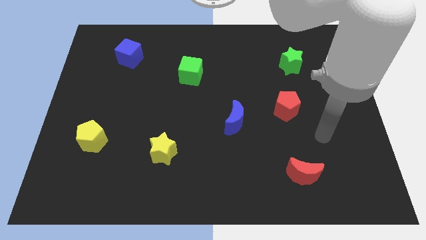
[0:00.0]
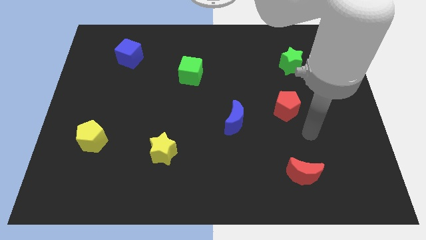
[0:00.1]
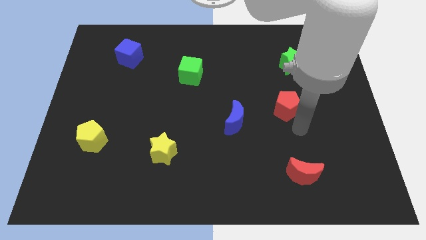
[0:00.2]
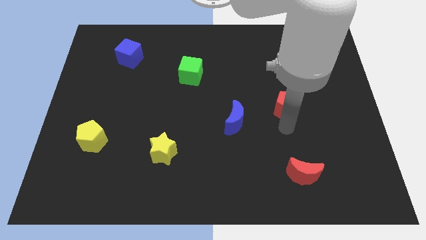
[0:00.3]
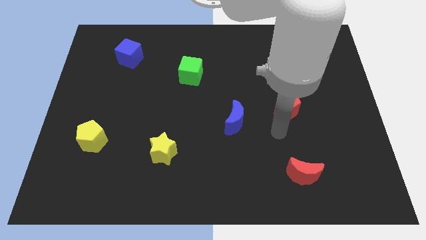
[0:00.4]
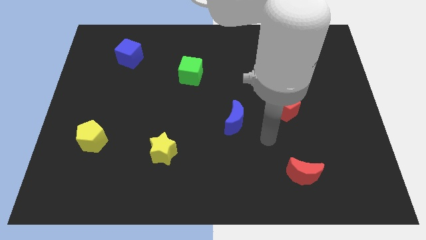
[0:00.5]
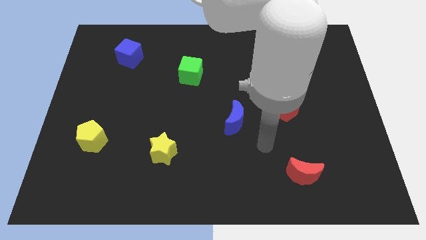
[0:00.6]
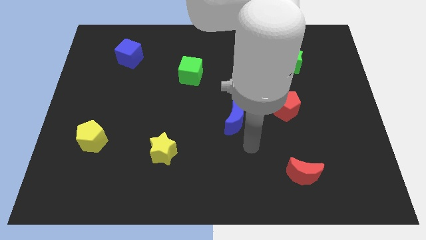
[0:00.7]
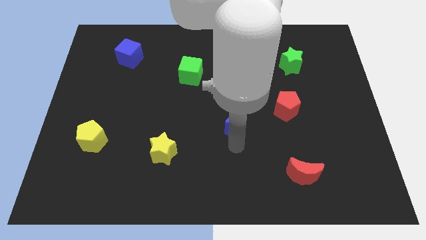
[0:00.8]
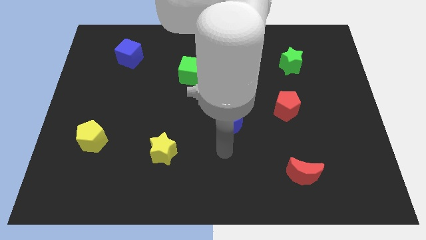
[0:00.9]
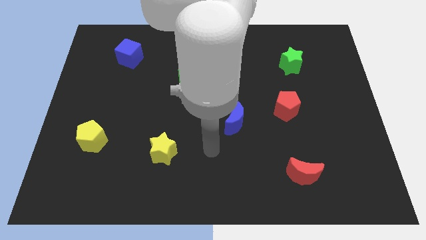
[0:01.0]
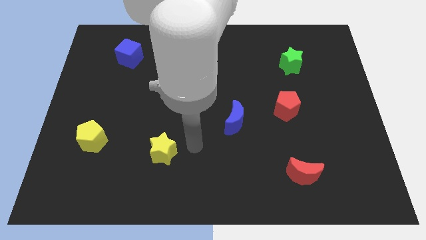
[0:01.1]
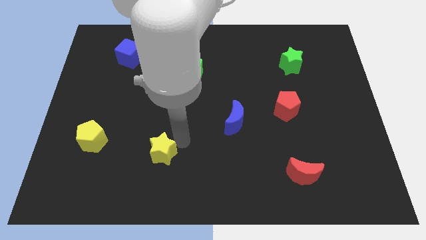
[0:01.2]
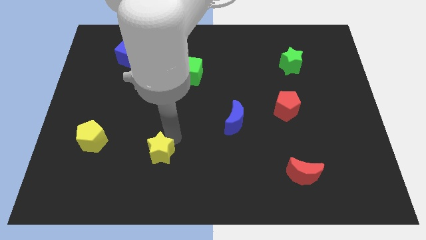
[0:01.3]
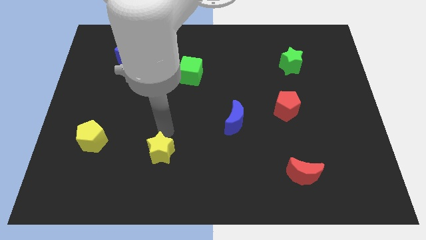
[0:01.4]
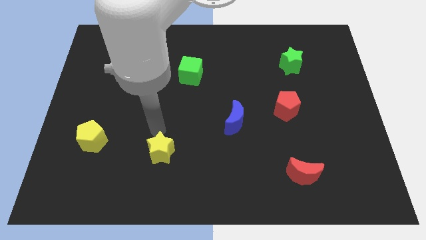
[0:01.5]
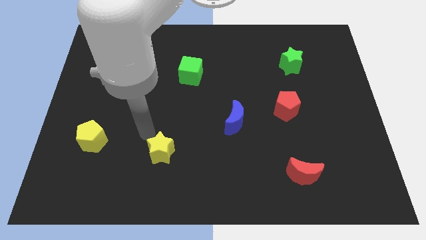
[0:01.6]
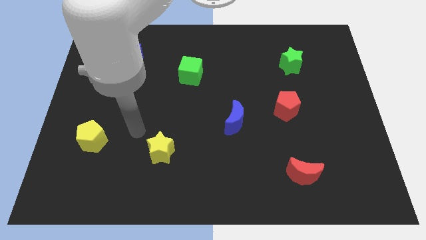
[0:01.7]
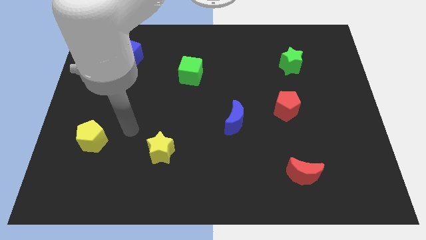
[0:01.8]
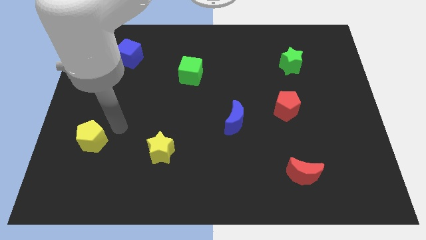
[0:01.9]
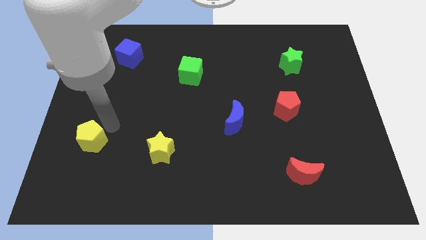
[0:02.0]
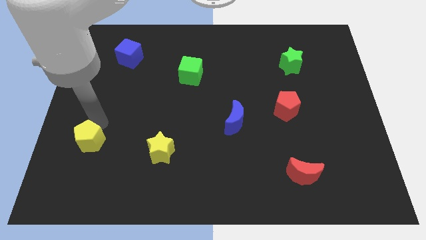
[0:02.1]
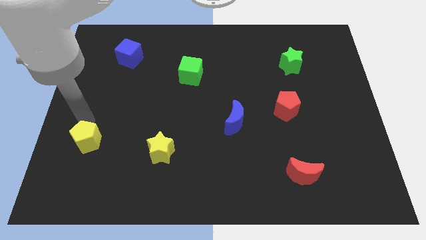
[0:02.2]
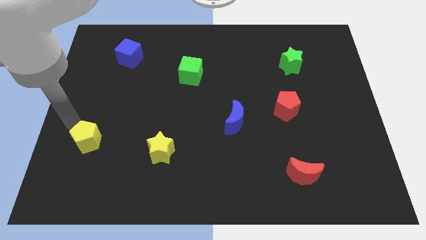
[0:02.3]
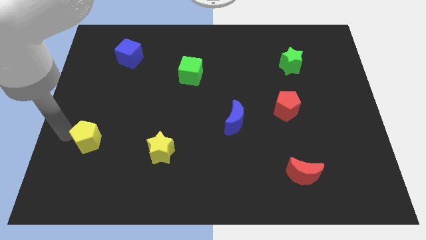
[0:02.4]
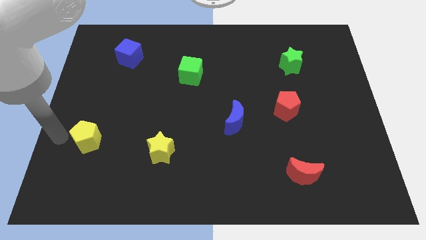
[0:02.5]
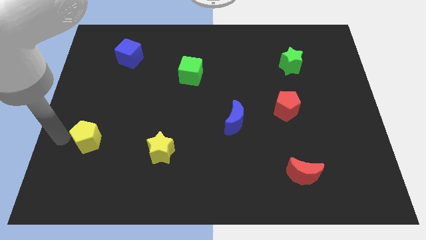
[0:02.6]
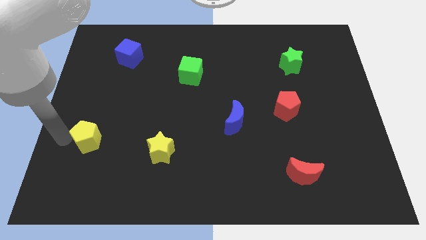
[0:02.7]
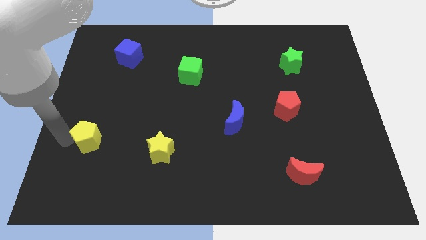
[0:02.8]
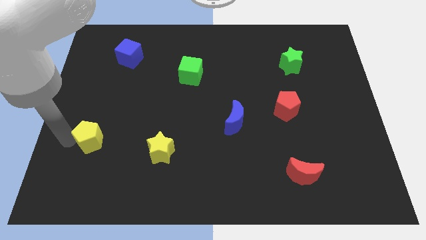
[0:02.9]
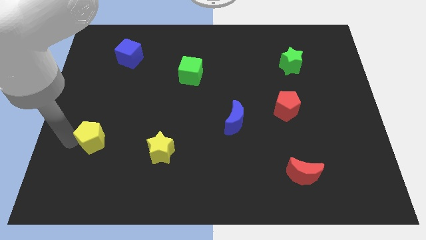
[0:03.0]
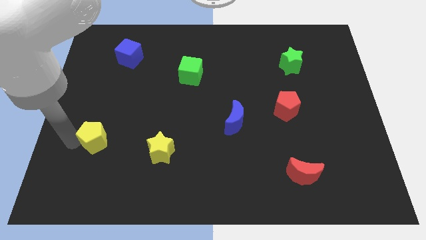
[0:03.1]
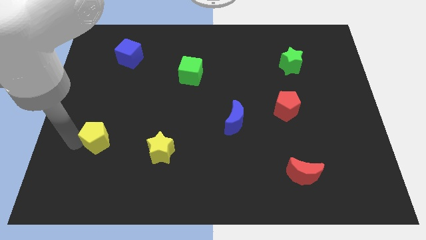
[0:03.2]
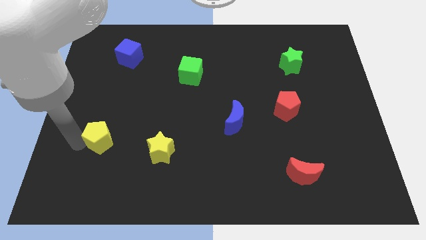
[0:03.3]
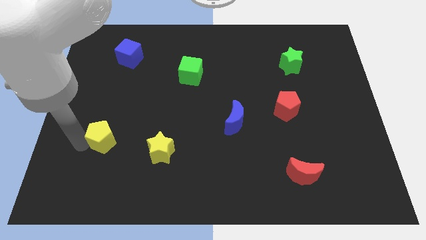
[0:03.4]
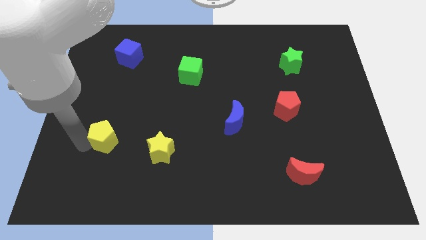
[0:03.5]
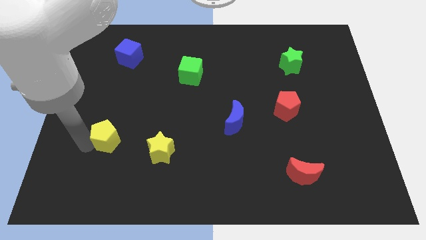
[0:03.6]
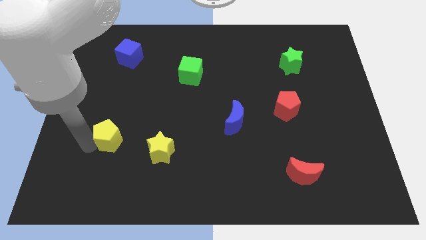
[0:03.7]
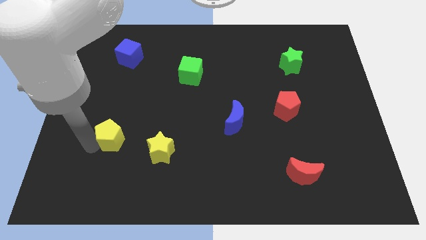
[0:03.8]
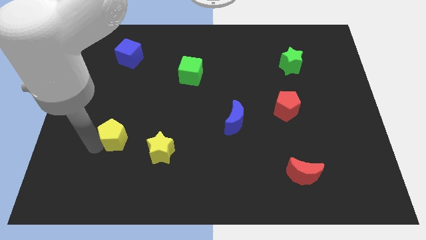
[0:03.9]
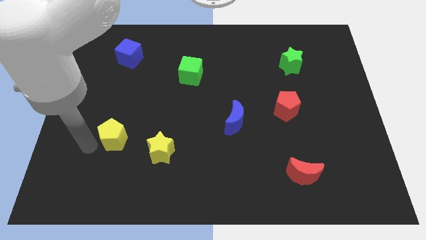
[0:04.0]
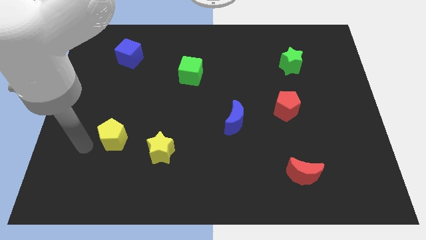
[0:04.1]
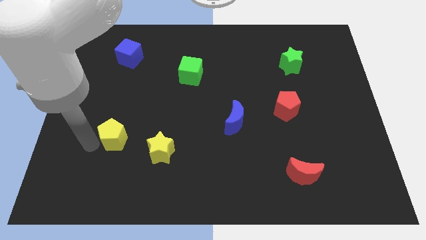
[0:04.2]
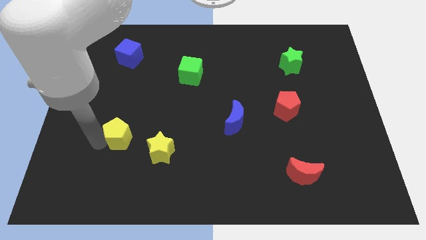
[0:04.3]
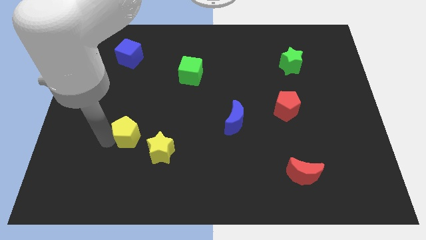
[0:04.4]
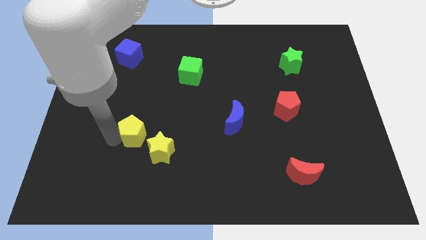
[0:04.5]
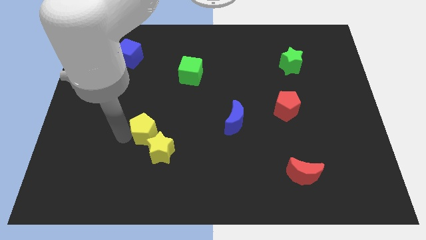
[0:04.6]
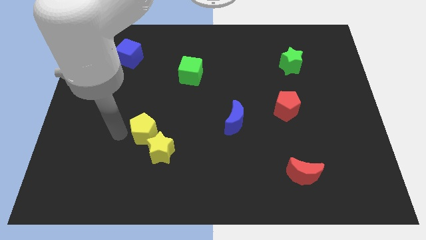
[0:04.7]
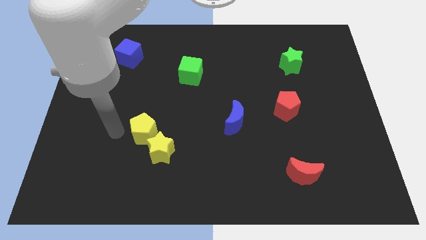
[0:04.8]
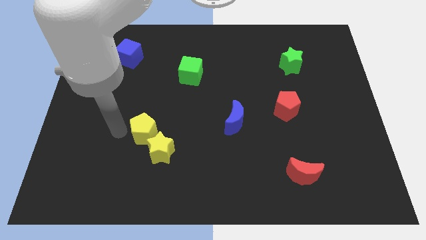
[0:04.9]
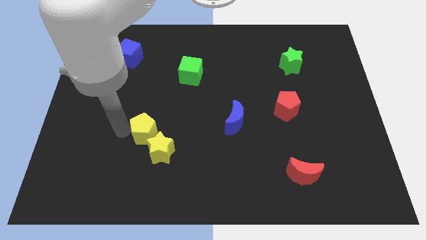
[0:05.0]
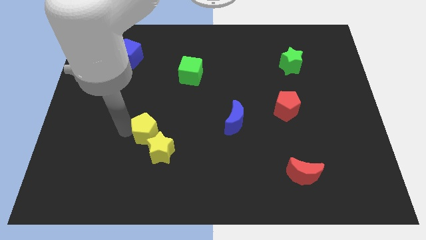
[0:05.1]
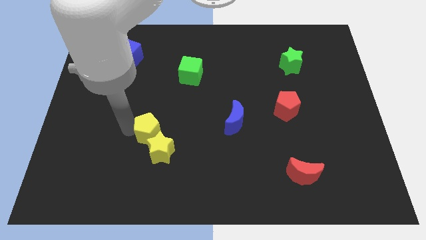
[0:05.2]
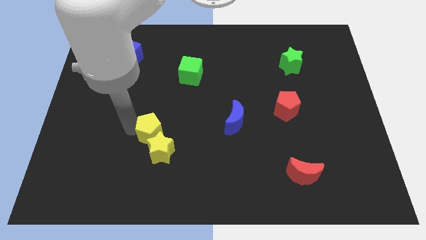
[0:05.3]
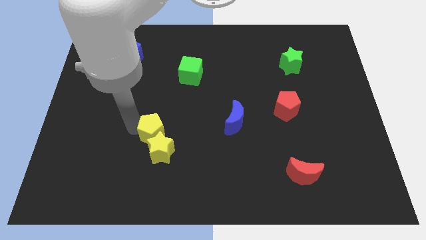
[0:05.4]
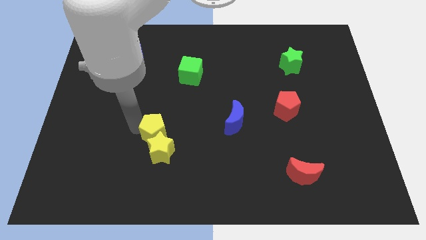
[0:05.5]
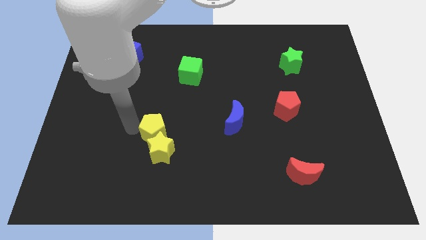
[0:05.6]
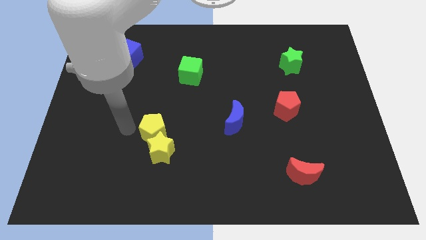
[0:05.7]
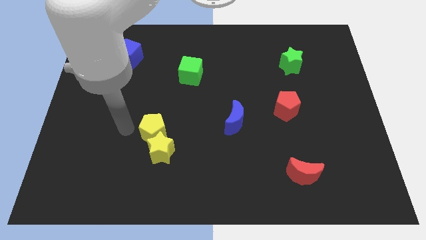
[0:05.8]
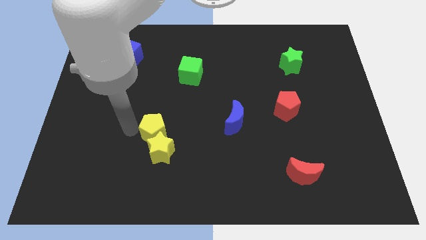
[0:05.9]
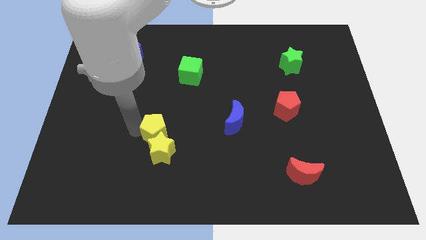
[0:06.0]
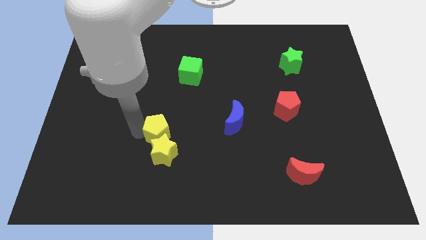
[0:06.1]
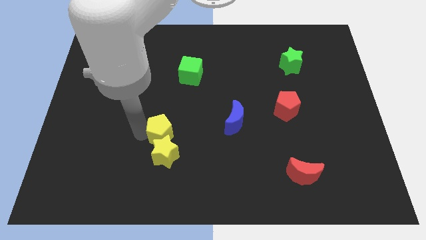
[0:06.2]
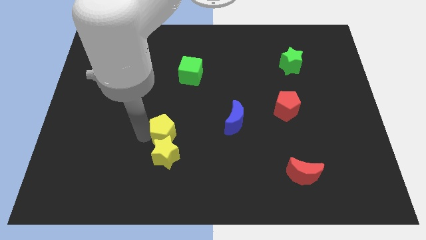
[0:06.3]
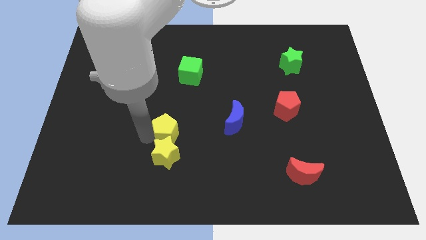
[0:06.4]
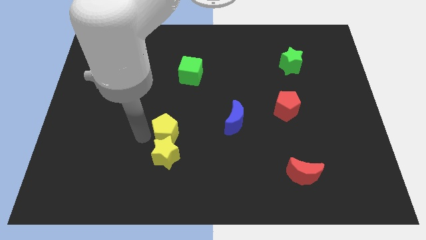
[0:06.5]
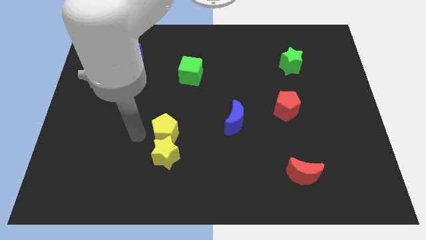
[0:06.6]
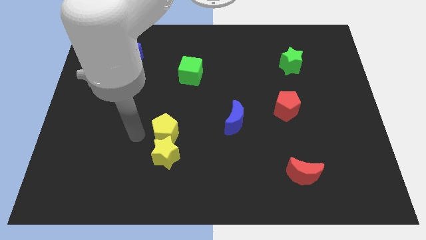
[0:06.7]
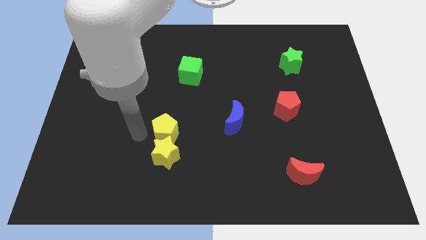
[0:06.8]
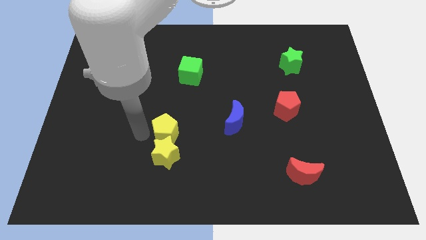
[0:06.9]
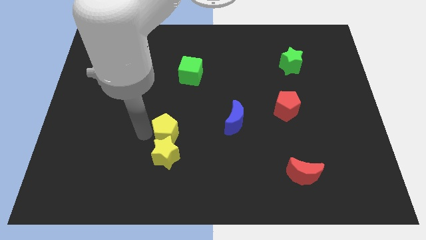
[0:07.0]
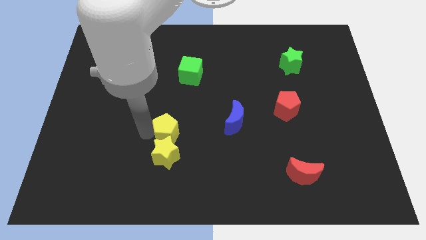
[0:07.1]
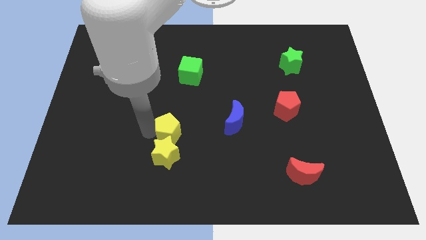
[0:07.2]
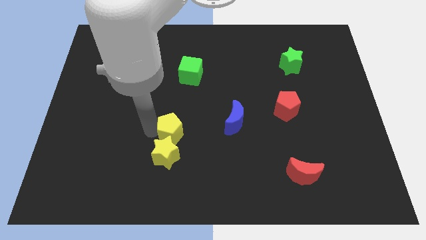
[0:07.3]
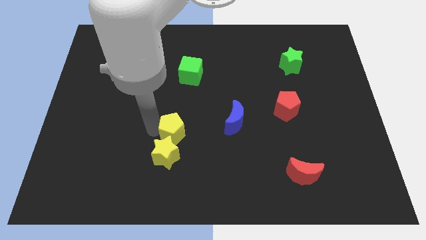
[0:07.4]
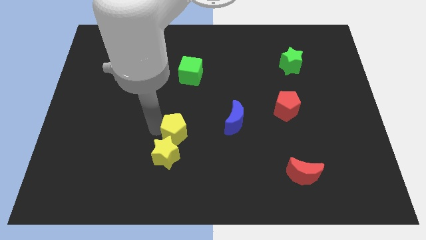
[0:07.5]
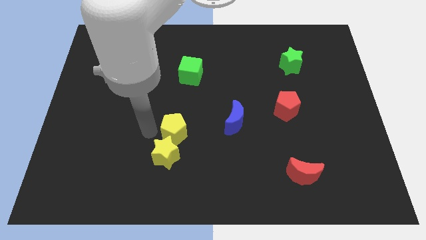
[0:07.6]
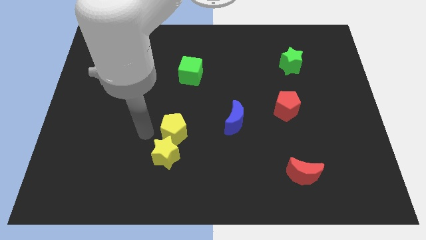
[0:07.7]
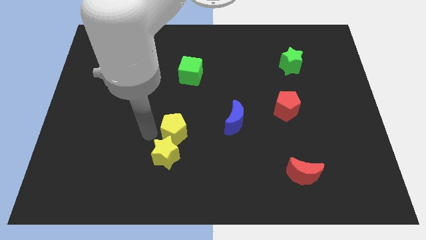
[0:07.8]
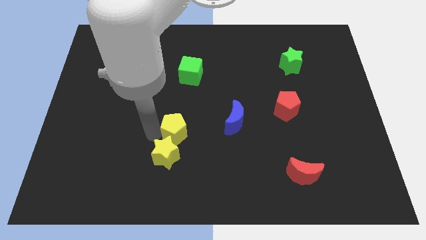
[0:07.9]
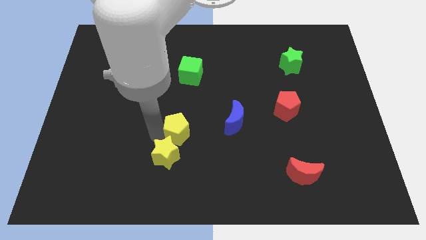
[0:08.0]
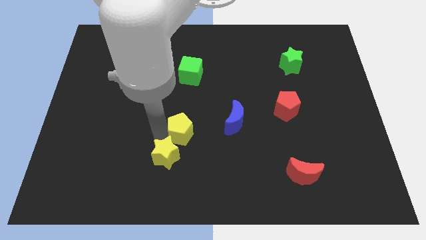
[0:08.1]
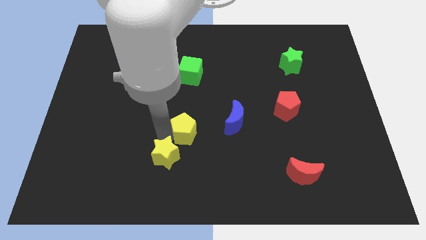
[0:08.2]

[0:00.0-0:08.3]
push the yellow pentagon to the right
